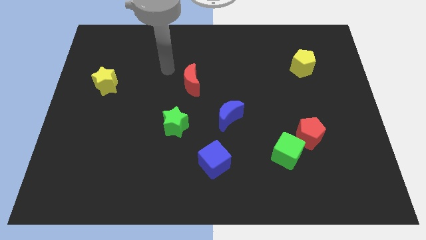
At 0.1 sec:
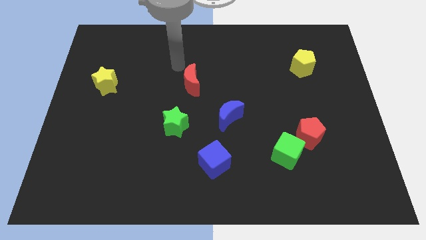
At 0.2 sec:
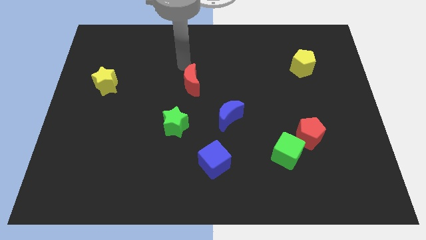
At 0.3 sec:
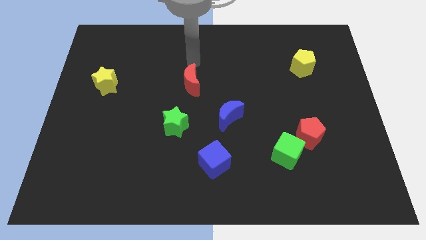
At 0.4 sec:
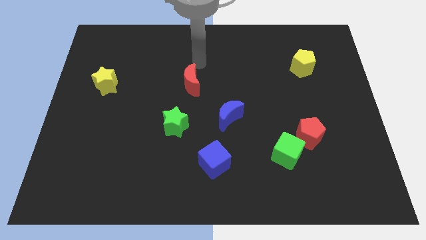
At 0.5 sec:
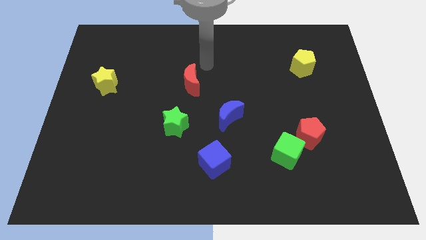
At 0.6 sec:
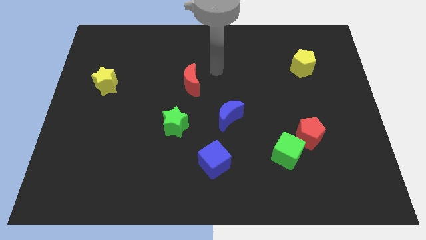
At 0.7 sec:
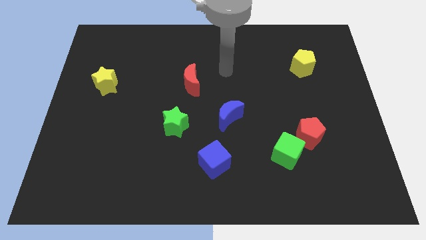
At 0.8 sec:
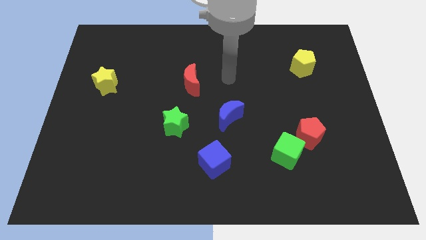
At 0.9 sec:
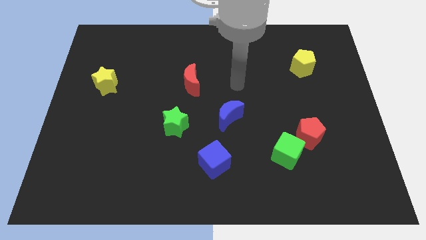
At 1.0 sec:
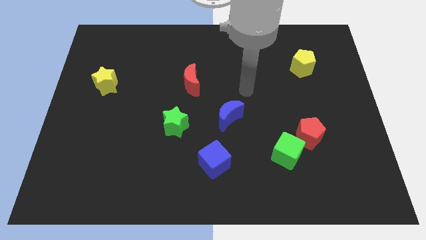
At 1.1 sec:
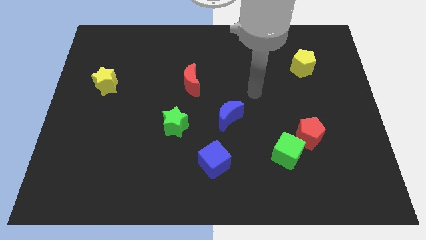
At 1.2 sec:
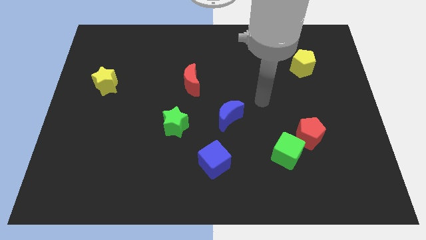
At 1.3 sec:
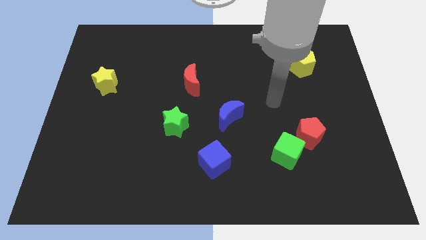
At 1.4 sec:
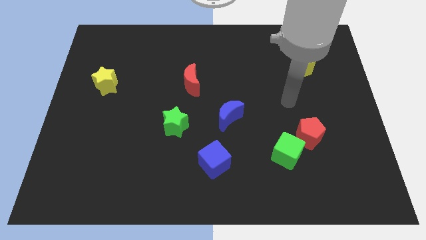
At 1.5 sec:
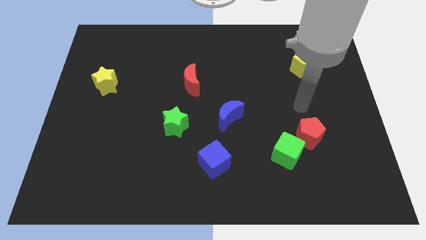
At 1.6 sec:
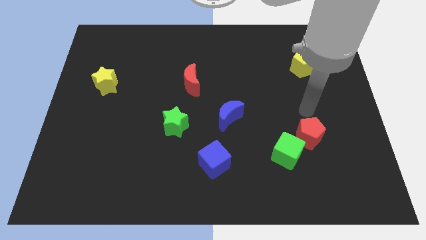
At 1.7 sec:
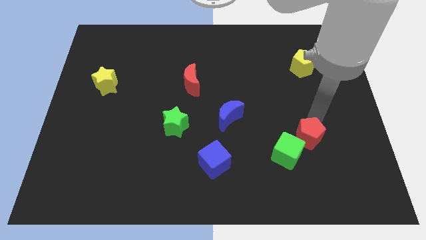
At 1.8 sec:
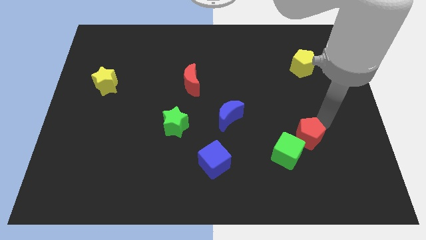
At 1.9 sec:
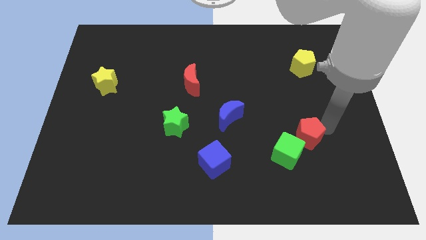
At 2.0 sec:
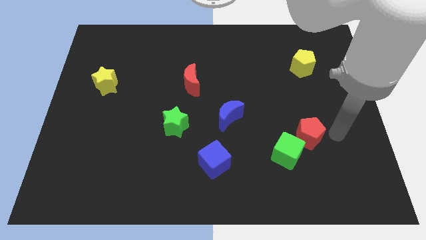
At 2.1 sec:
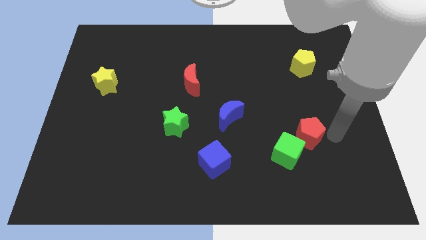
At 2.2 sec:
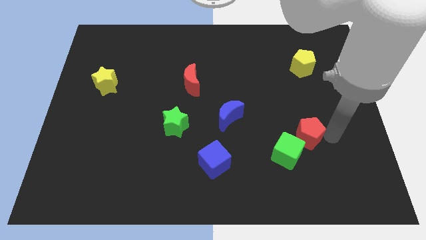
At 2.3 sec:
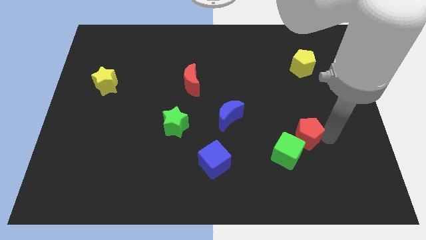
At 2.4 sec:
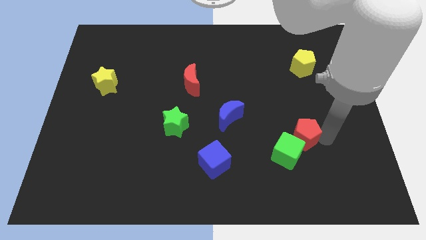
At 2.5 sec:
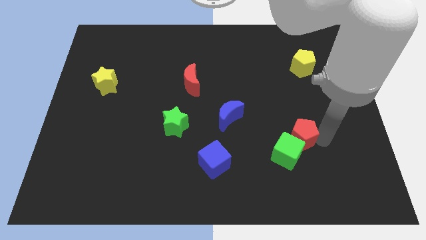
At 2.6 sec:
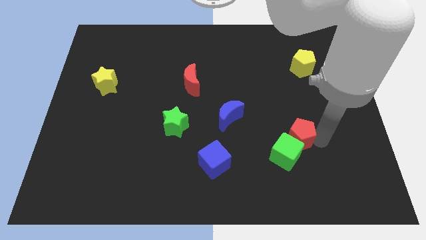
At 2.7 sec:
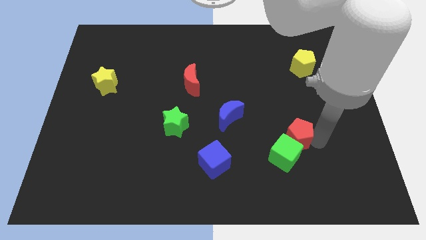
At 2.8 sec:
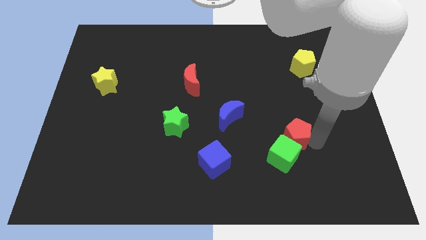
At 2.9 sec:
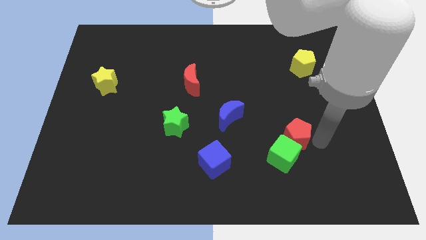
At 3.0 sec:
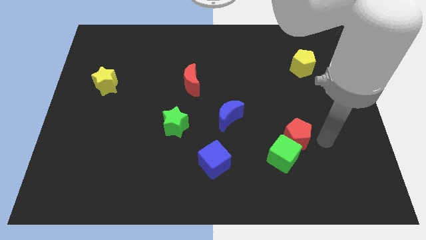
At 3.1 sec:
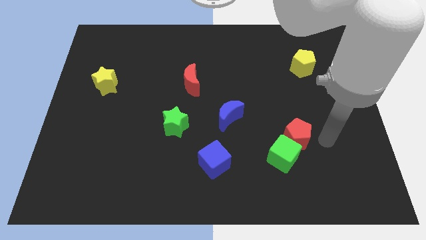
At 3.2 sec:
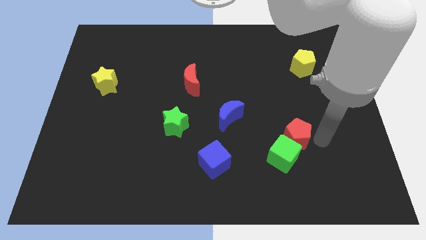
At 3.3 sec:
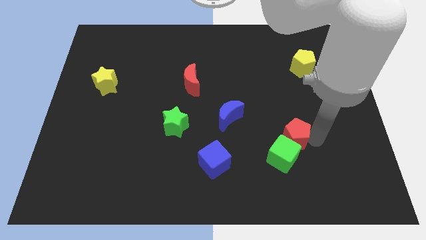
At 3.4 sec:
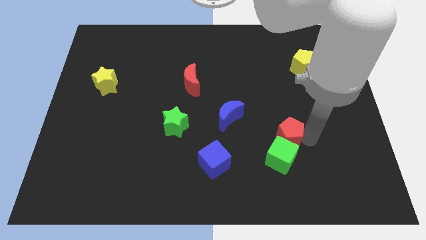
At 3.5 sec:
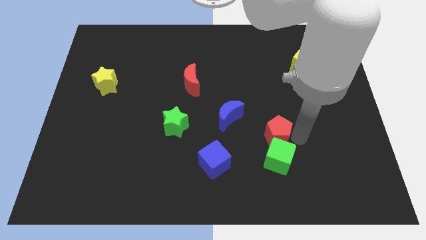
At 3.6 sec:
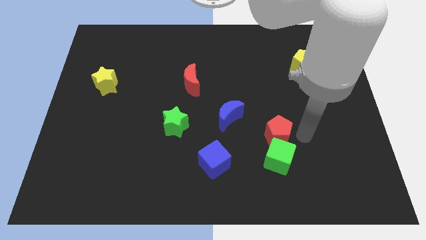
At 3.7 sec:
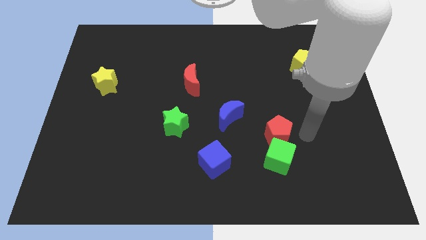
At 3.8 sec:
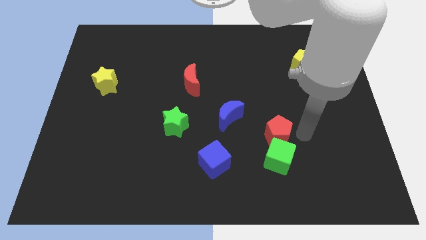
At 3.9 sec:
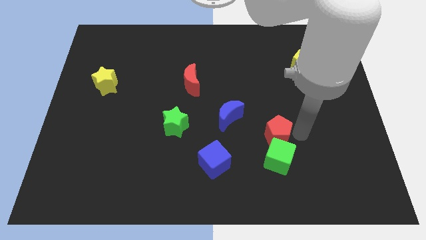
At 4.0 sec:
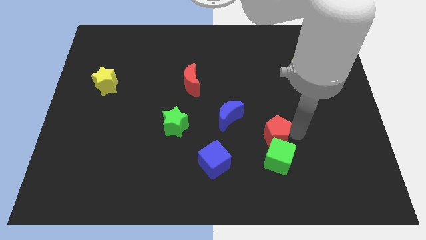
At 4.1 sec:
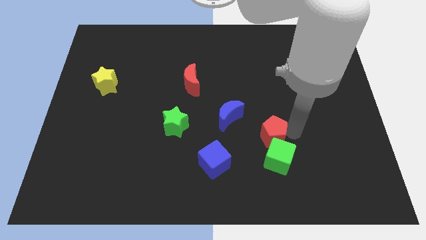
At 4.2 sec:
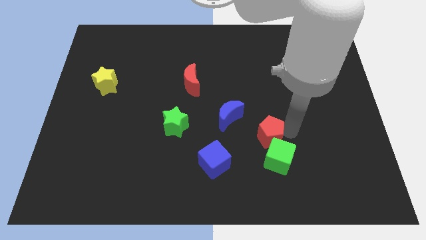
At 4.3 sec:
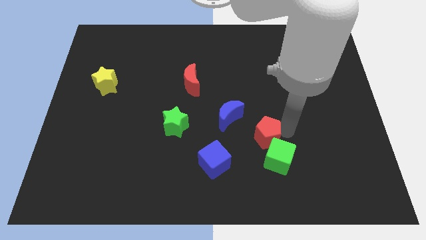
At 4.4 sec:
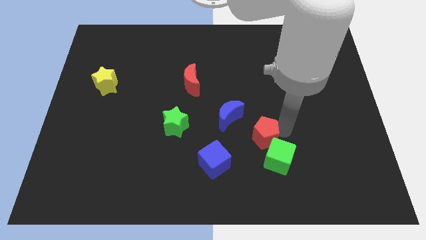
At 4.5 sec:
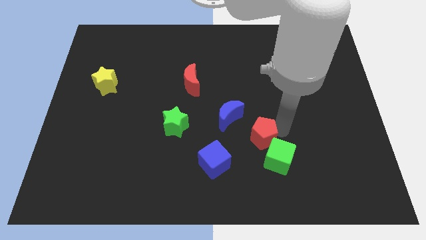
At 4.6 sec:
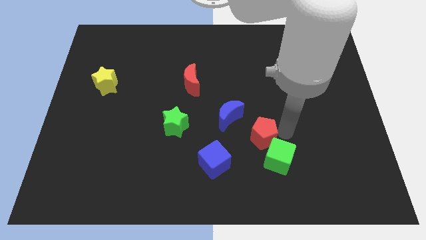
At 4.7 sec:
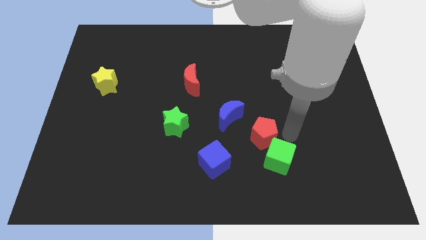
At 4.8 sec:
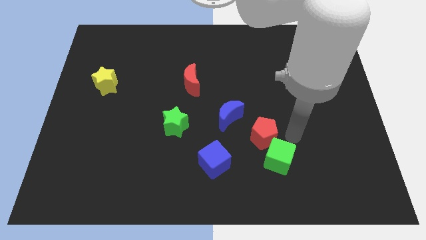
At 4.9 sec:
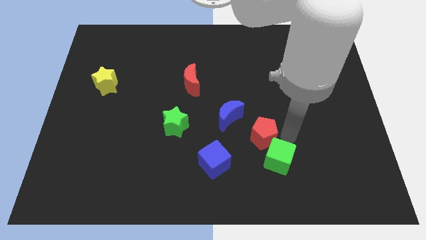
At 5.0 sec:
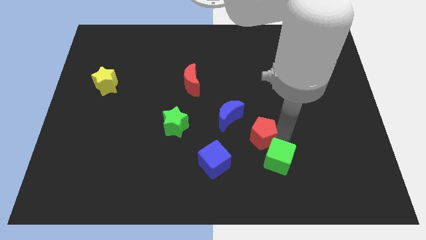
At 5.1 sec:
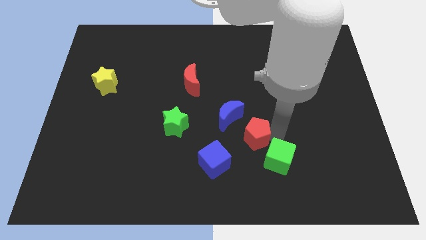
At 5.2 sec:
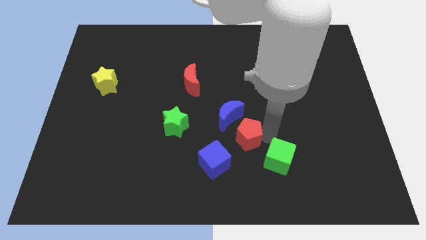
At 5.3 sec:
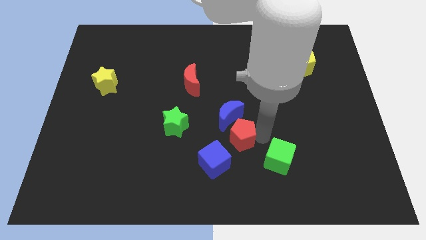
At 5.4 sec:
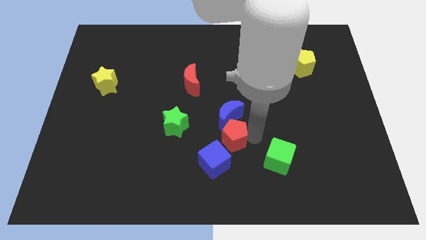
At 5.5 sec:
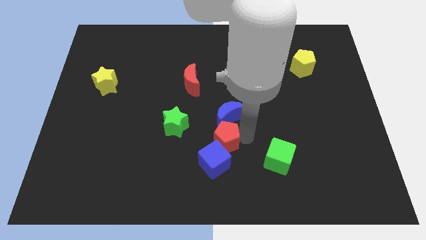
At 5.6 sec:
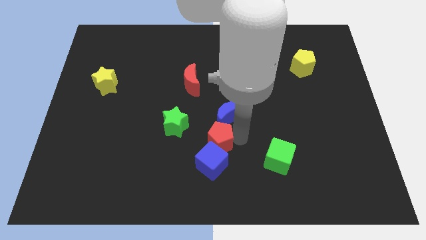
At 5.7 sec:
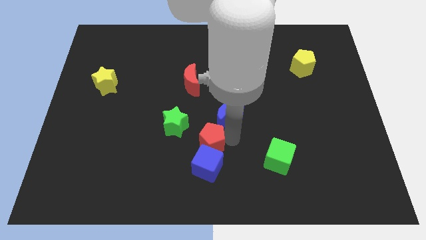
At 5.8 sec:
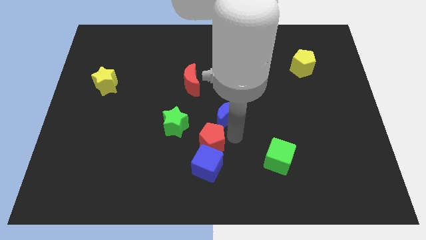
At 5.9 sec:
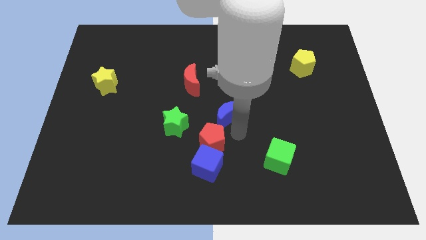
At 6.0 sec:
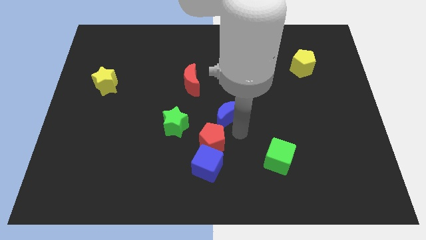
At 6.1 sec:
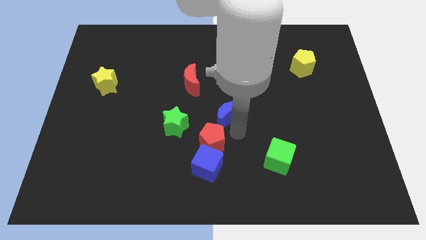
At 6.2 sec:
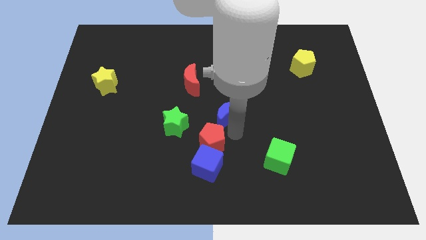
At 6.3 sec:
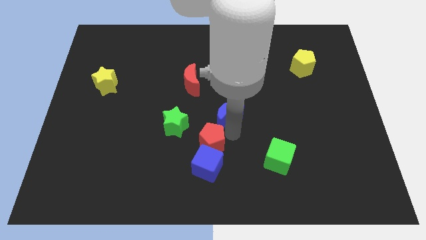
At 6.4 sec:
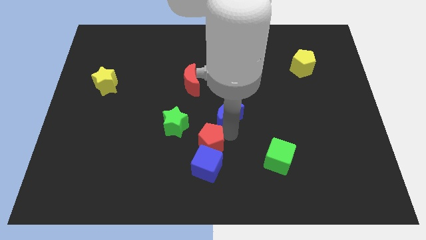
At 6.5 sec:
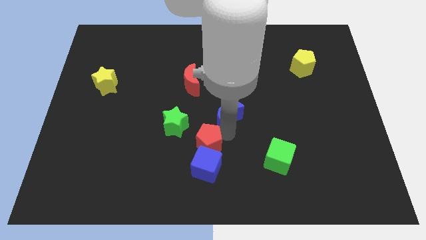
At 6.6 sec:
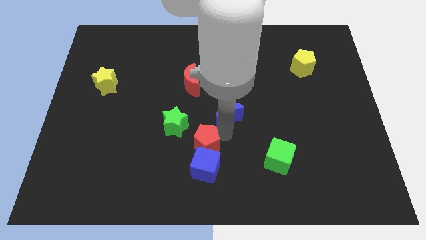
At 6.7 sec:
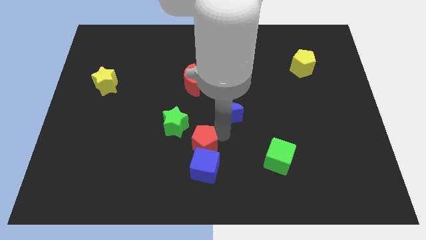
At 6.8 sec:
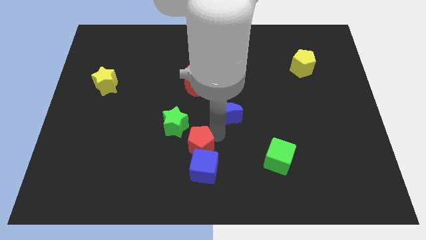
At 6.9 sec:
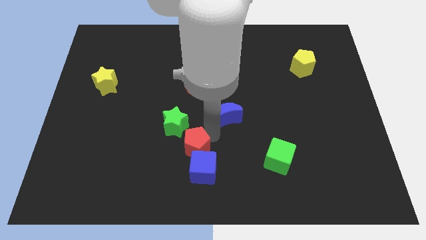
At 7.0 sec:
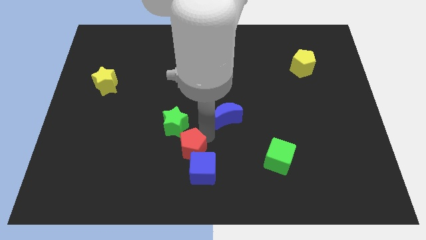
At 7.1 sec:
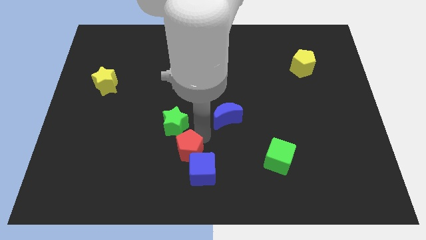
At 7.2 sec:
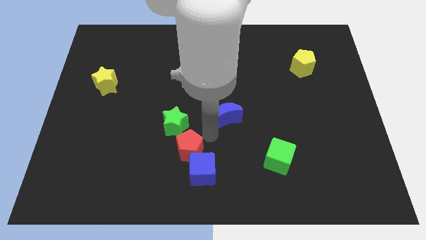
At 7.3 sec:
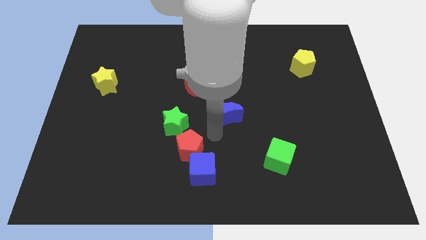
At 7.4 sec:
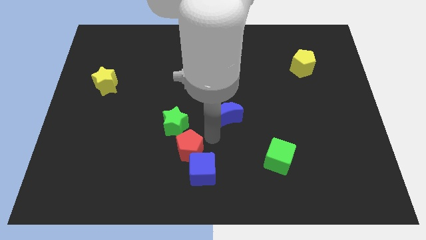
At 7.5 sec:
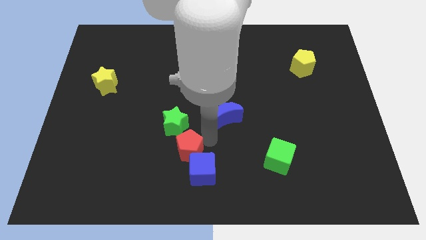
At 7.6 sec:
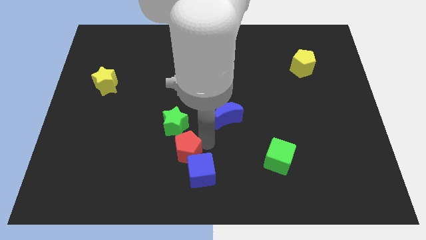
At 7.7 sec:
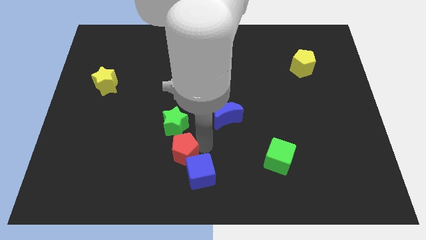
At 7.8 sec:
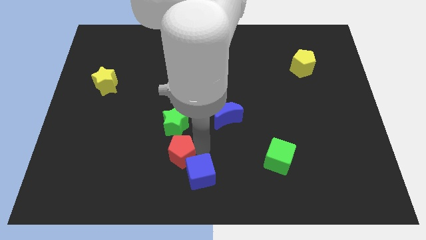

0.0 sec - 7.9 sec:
slide the red pentagon just left of the blue cube
